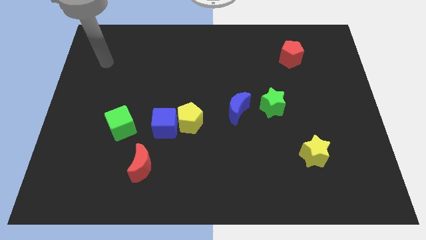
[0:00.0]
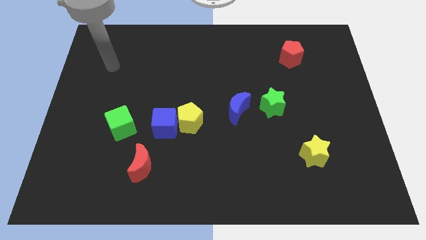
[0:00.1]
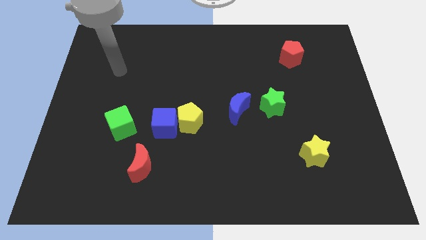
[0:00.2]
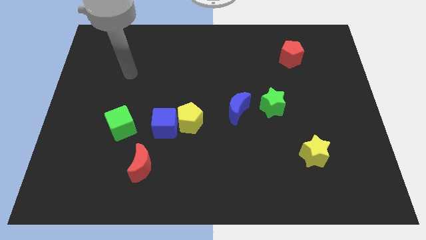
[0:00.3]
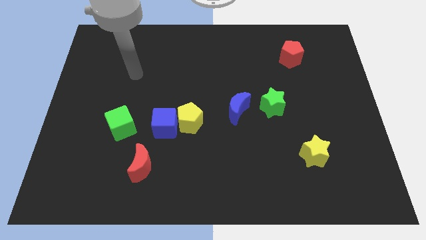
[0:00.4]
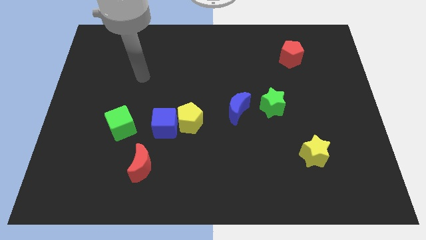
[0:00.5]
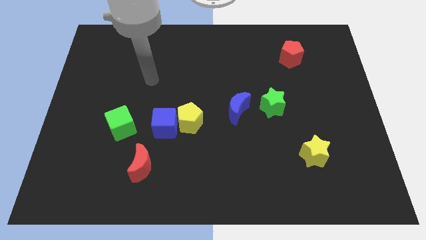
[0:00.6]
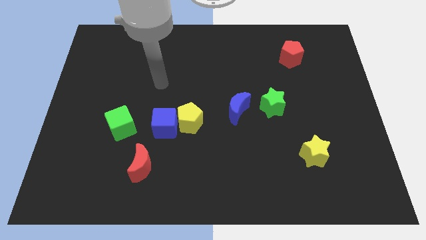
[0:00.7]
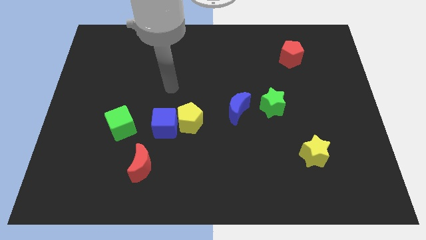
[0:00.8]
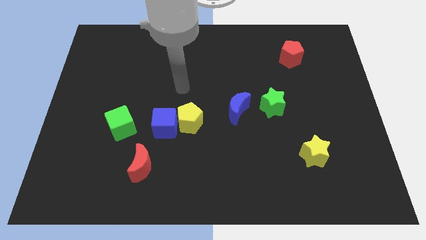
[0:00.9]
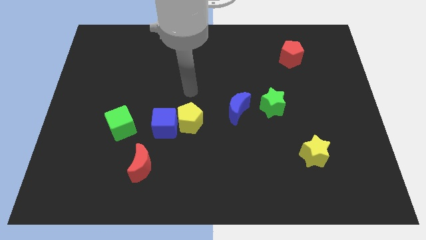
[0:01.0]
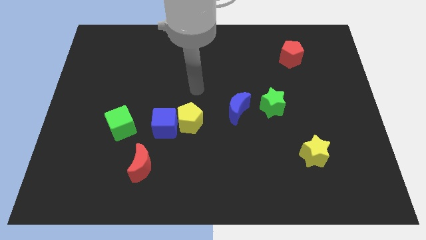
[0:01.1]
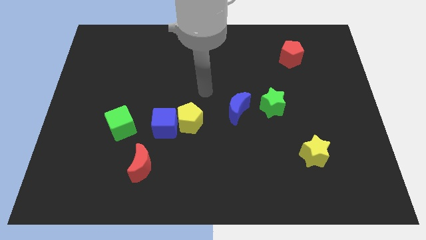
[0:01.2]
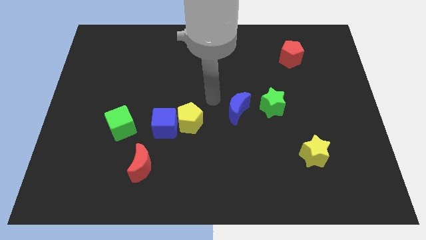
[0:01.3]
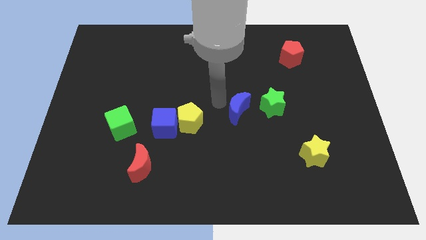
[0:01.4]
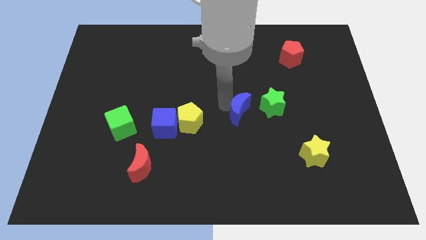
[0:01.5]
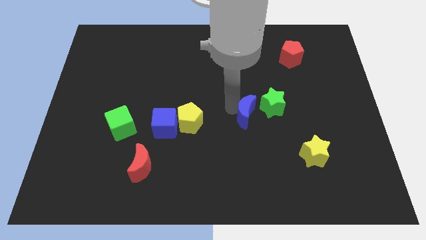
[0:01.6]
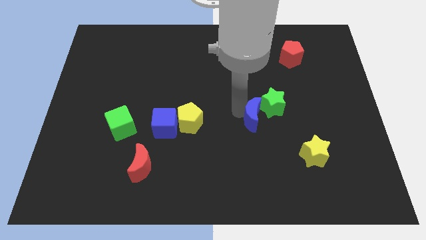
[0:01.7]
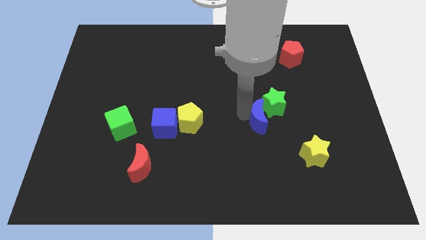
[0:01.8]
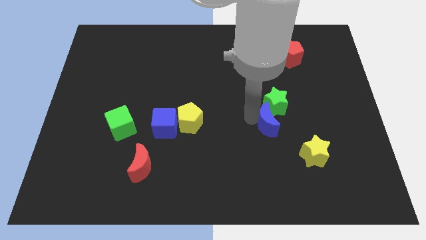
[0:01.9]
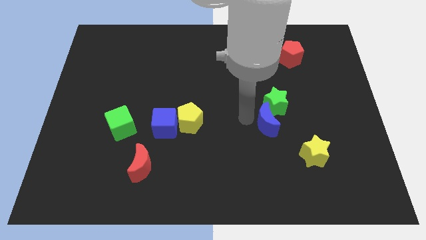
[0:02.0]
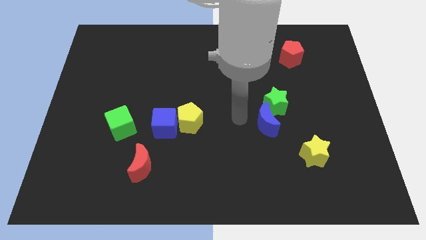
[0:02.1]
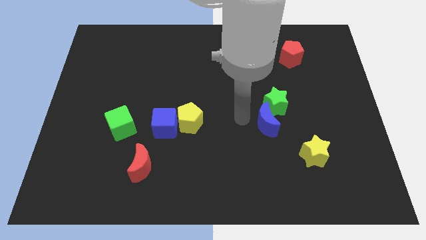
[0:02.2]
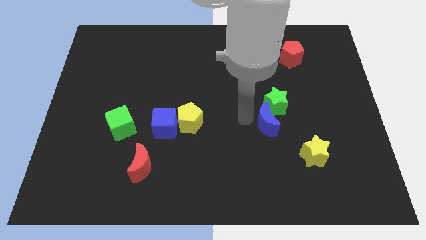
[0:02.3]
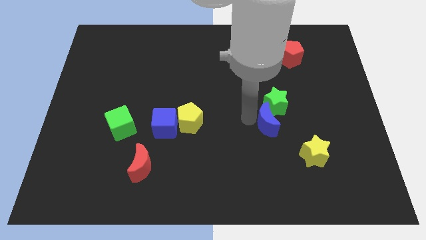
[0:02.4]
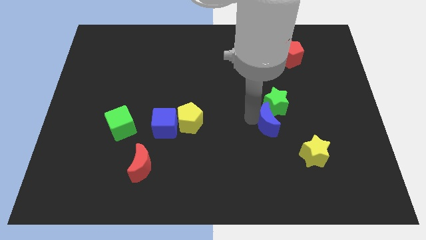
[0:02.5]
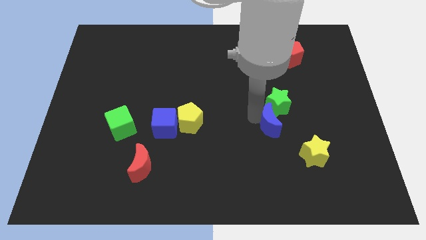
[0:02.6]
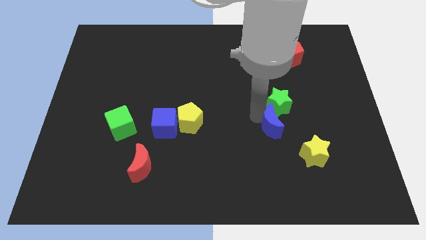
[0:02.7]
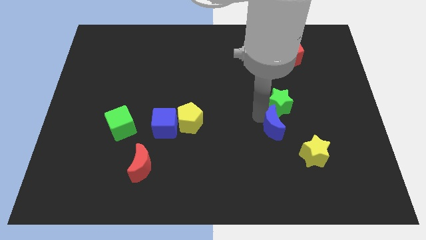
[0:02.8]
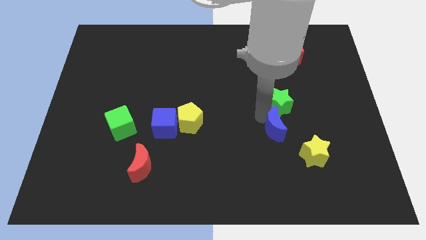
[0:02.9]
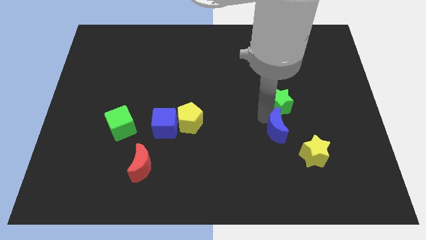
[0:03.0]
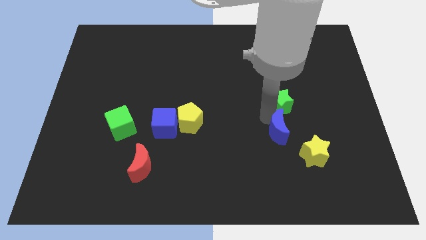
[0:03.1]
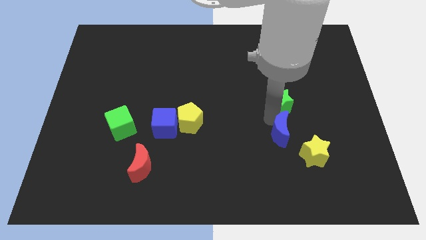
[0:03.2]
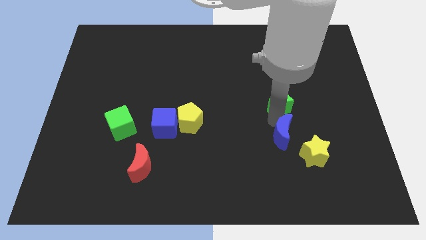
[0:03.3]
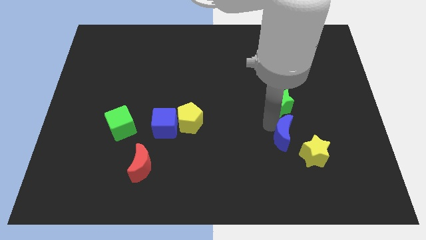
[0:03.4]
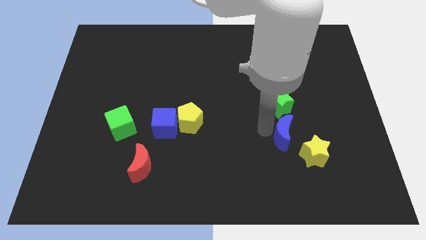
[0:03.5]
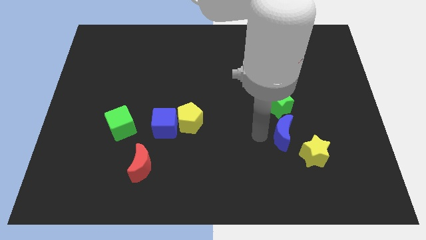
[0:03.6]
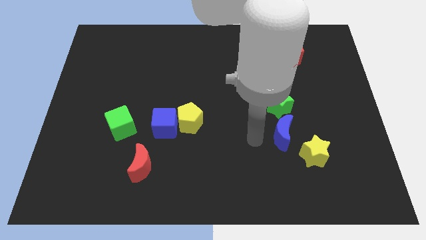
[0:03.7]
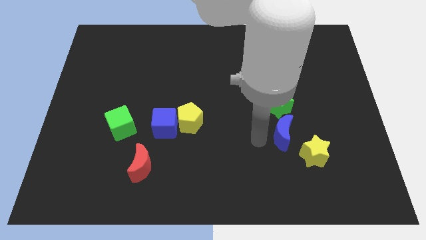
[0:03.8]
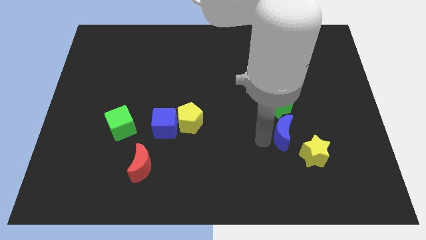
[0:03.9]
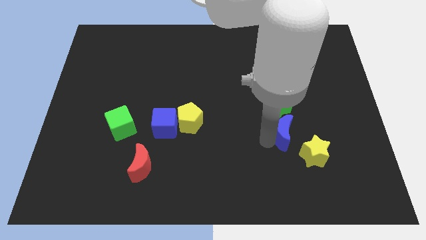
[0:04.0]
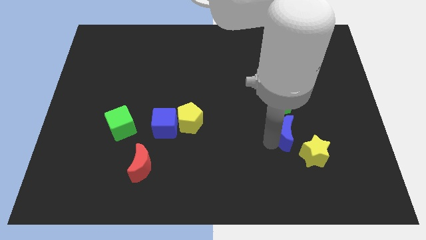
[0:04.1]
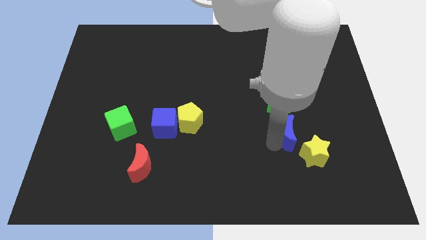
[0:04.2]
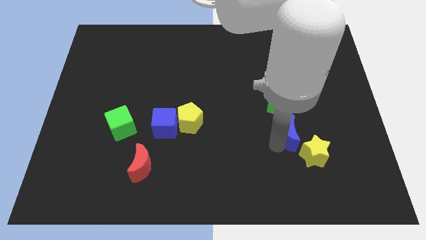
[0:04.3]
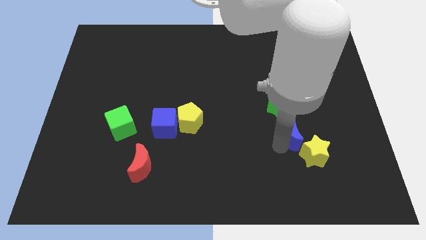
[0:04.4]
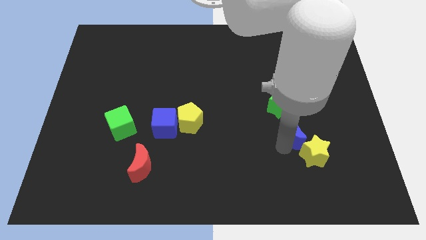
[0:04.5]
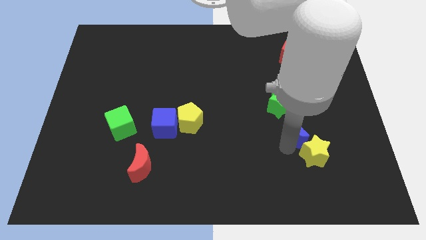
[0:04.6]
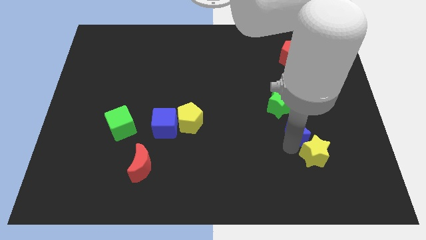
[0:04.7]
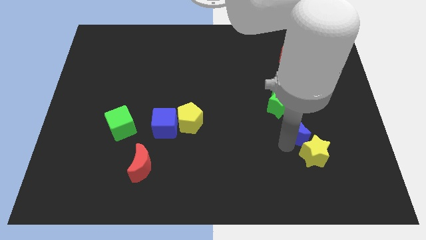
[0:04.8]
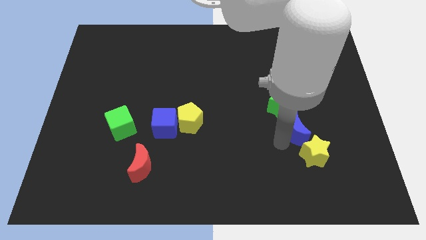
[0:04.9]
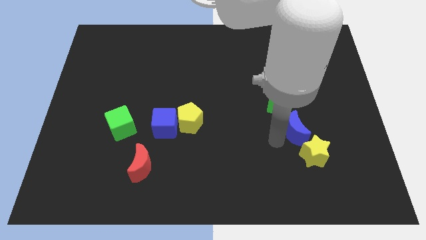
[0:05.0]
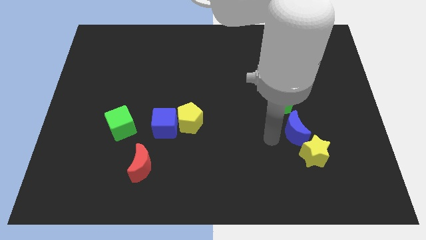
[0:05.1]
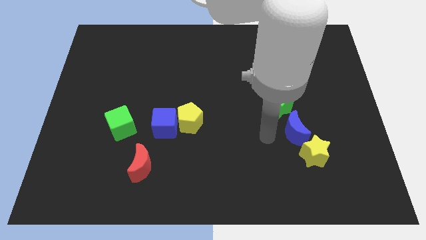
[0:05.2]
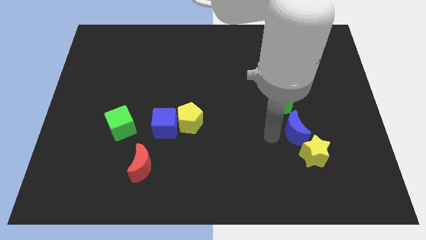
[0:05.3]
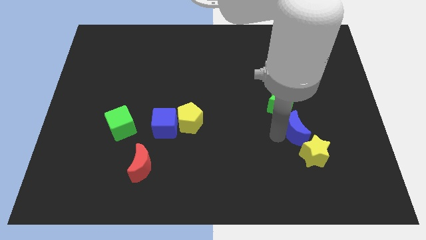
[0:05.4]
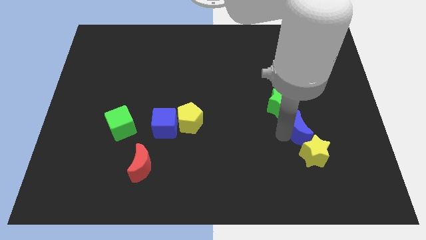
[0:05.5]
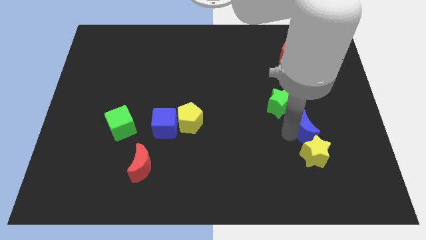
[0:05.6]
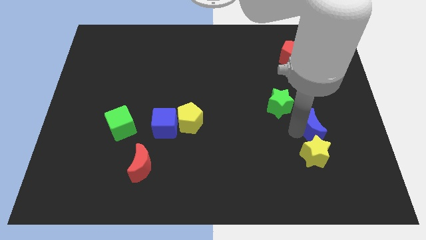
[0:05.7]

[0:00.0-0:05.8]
move the blue moon diagonally up and to the right of the yellow star

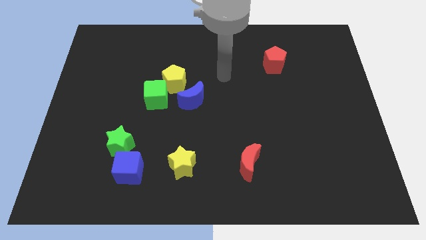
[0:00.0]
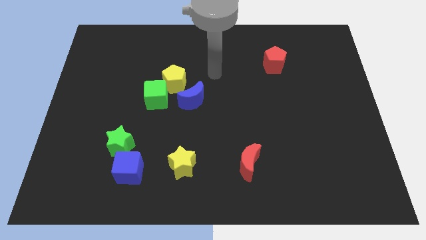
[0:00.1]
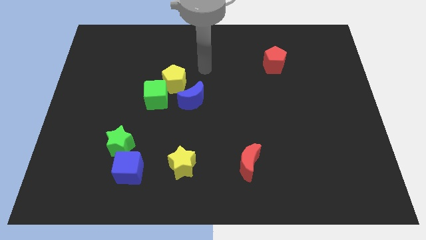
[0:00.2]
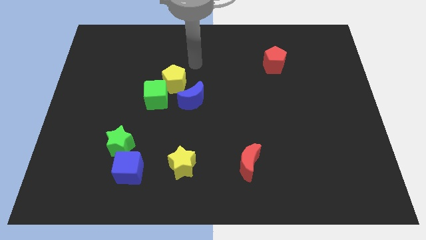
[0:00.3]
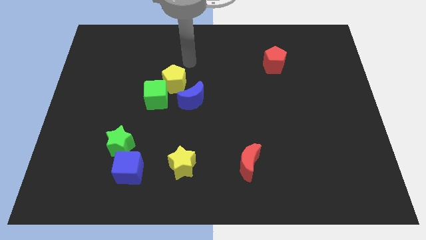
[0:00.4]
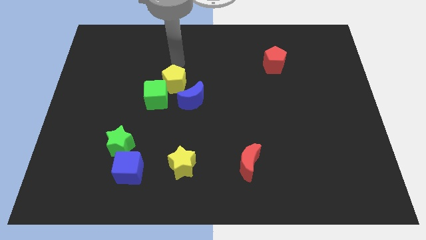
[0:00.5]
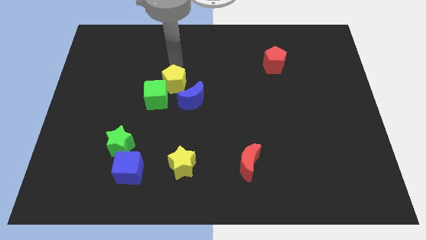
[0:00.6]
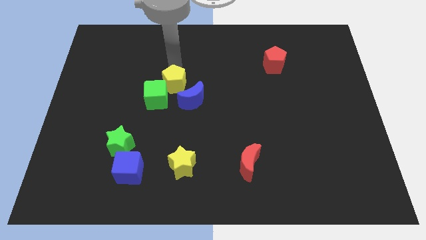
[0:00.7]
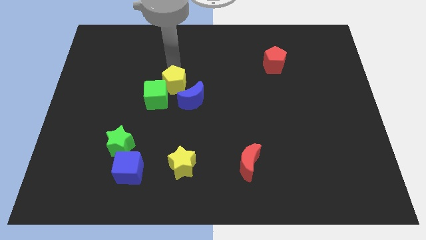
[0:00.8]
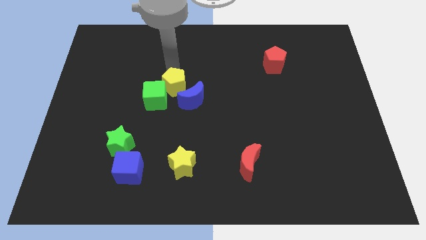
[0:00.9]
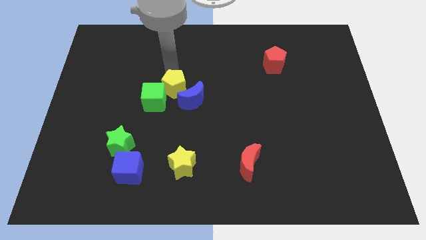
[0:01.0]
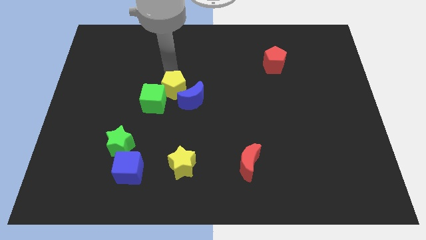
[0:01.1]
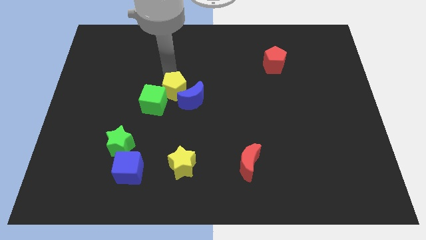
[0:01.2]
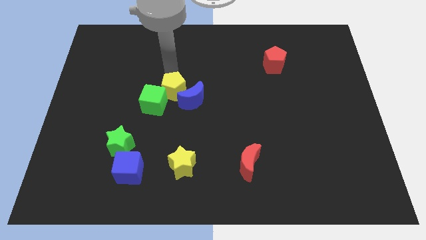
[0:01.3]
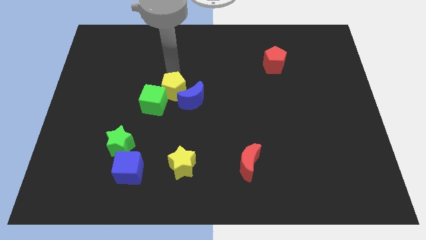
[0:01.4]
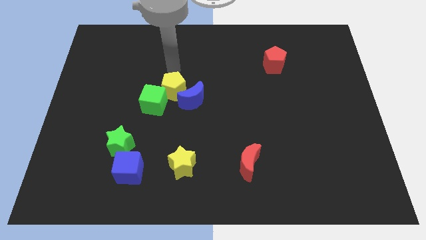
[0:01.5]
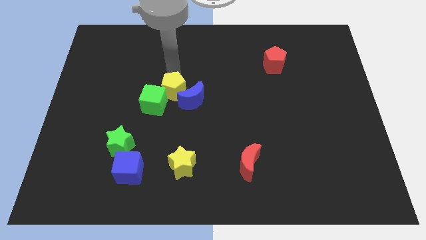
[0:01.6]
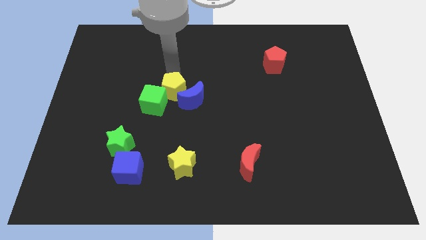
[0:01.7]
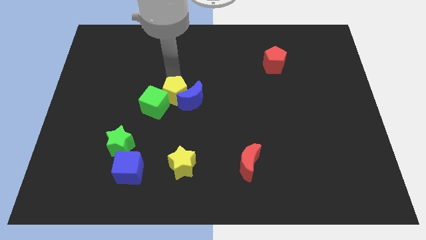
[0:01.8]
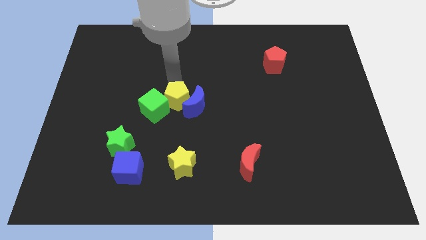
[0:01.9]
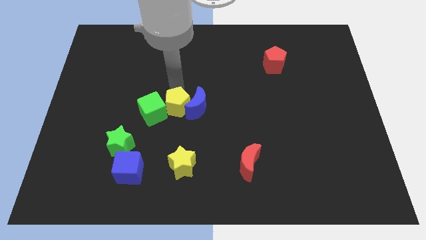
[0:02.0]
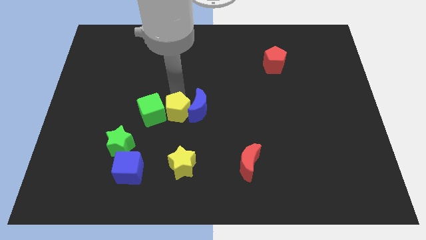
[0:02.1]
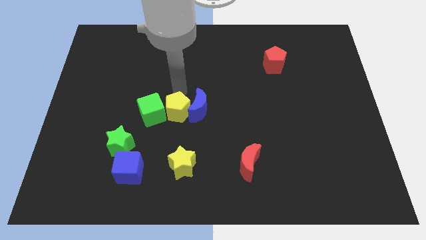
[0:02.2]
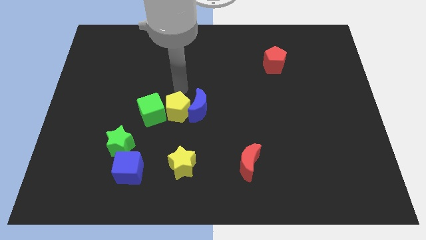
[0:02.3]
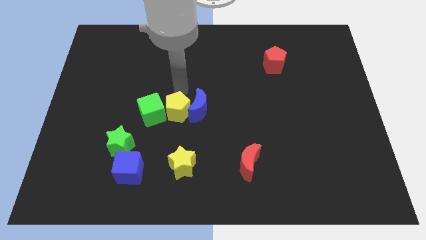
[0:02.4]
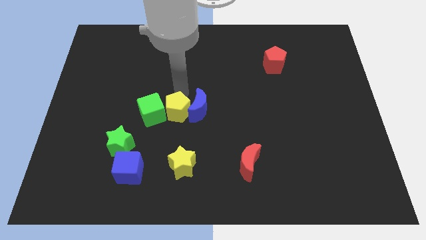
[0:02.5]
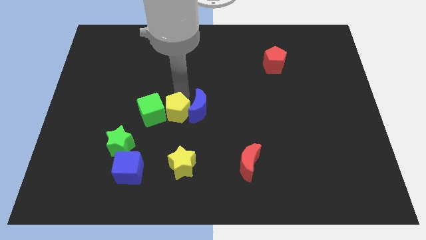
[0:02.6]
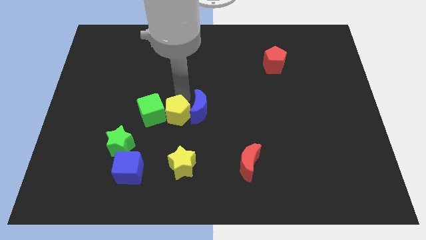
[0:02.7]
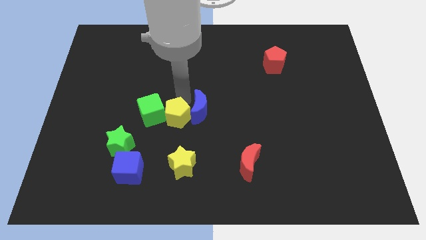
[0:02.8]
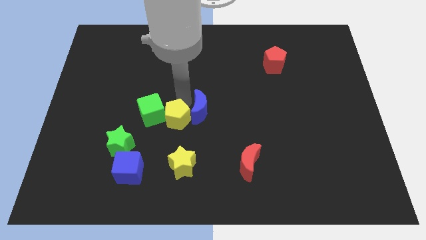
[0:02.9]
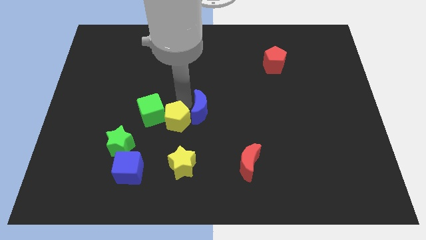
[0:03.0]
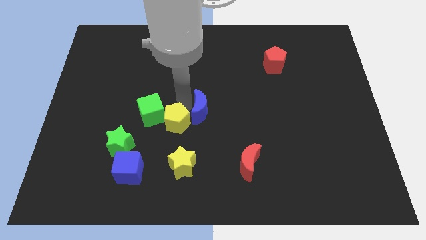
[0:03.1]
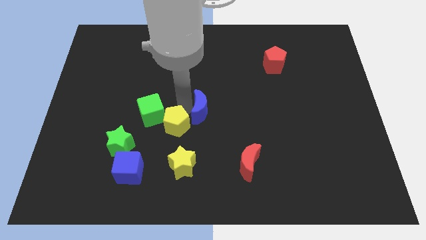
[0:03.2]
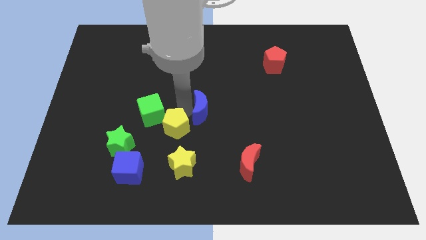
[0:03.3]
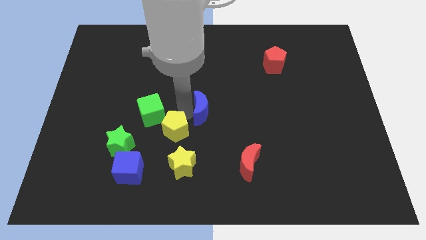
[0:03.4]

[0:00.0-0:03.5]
push the yellow pentagon just right of the green star
